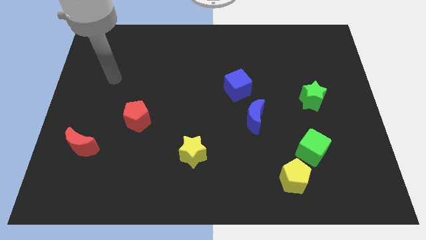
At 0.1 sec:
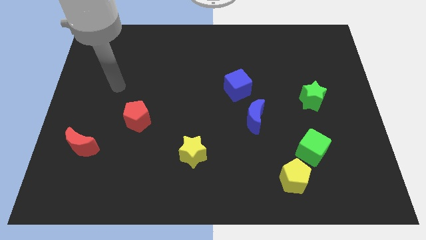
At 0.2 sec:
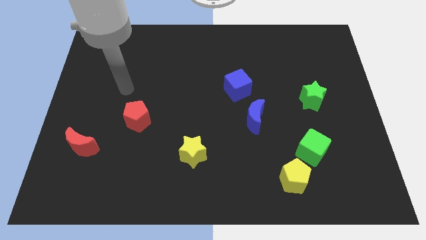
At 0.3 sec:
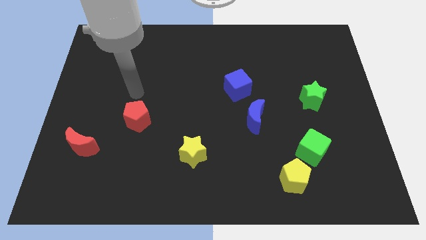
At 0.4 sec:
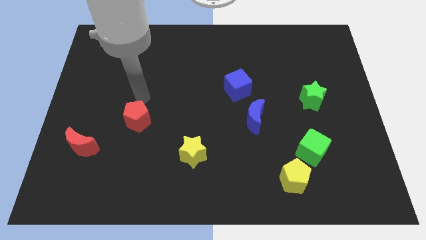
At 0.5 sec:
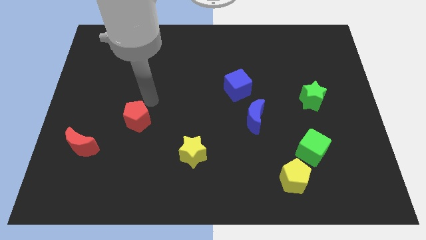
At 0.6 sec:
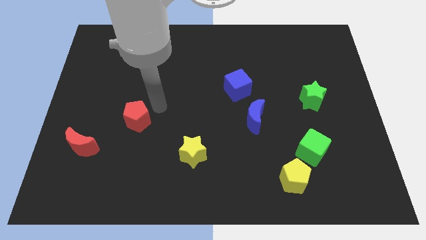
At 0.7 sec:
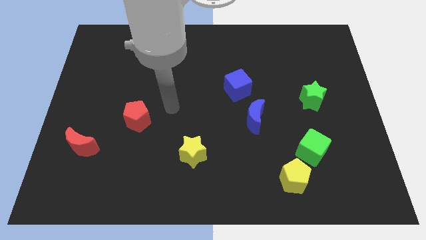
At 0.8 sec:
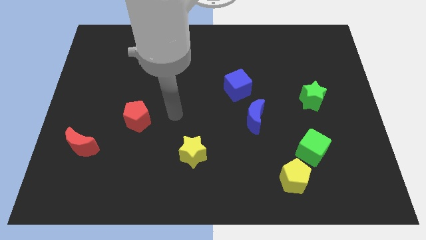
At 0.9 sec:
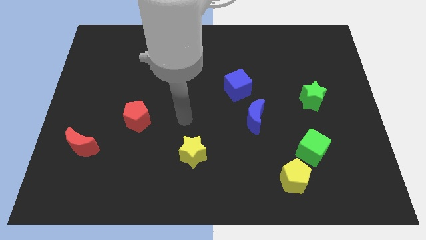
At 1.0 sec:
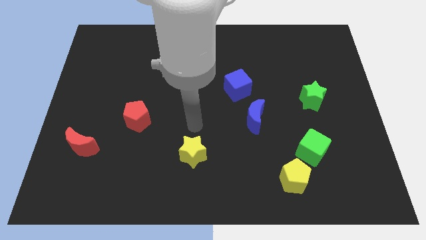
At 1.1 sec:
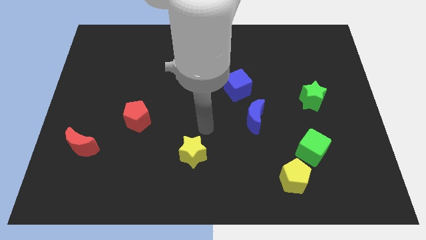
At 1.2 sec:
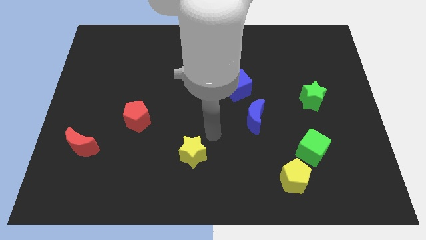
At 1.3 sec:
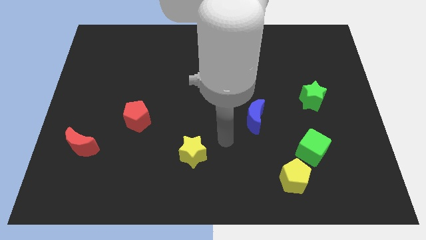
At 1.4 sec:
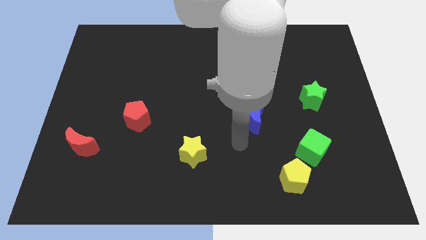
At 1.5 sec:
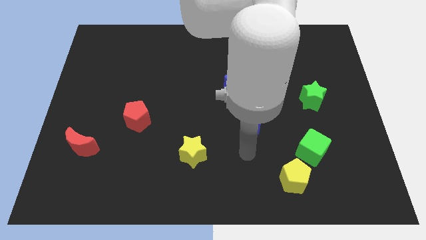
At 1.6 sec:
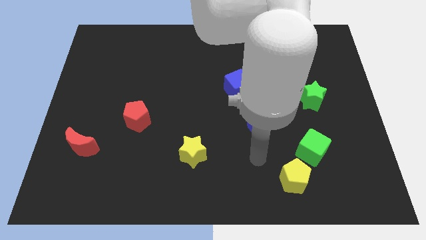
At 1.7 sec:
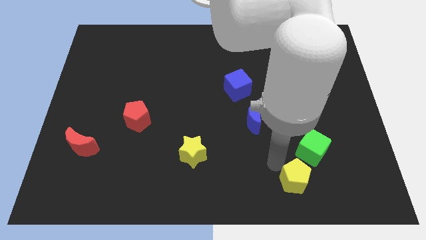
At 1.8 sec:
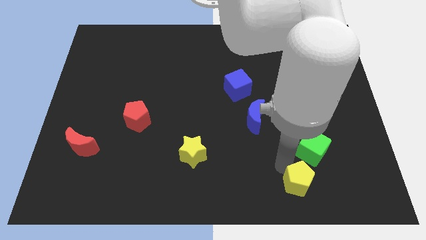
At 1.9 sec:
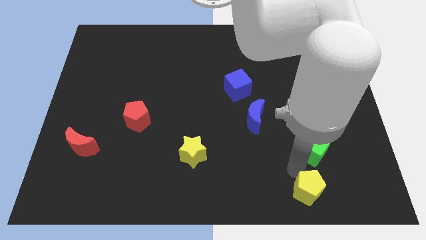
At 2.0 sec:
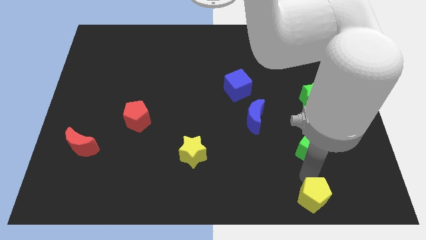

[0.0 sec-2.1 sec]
pull the green cube apart from the yellow pentagon

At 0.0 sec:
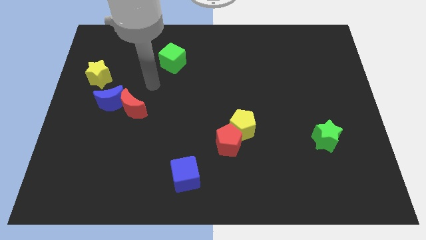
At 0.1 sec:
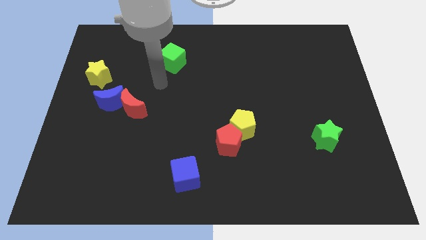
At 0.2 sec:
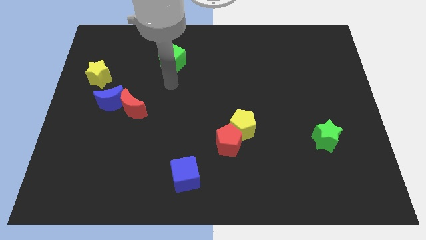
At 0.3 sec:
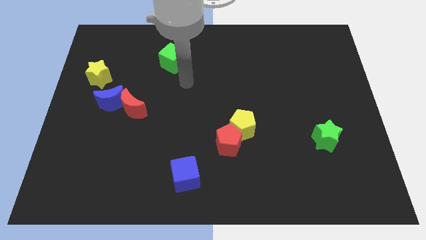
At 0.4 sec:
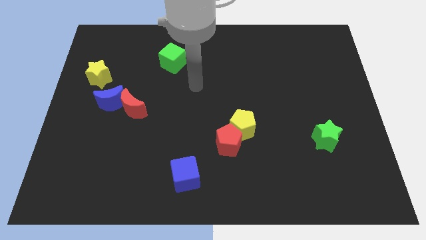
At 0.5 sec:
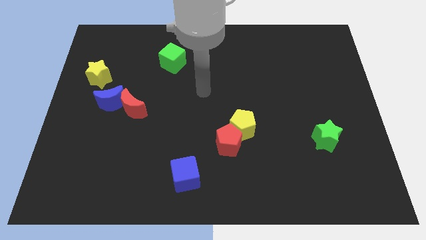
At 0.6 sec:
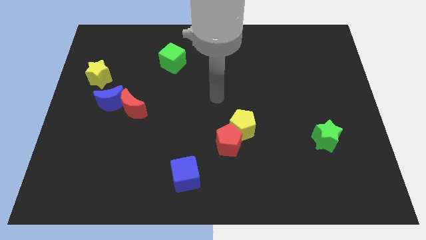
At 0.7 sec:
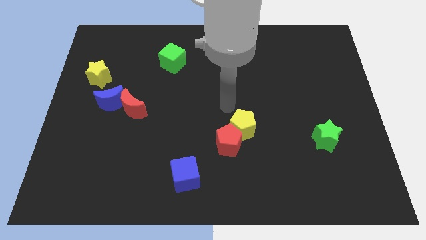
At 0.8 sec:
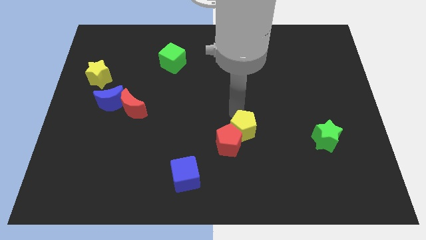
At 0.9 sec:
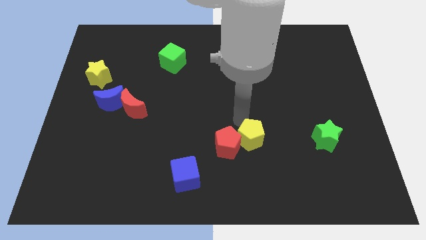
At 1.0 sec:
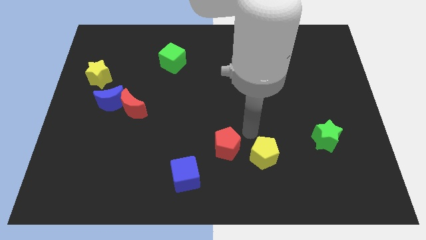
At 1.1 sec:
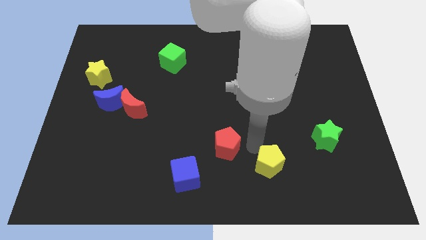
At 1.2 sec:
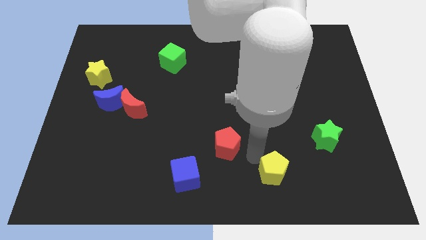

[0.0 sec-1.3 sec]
separate the red pentagon from the yellow pentagon

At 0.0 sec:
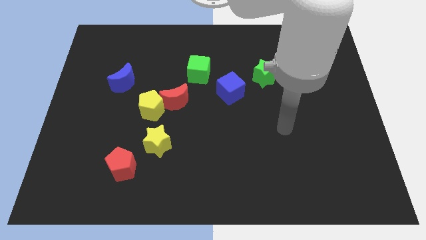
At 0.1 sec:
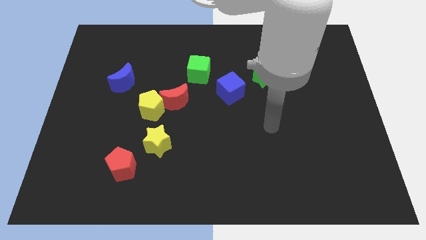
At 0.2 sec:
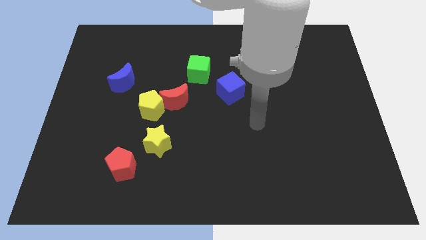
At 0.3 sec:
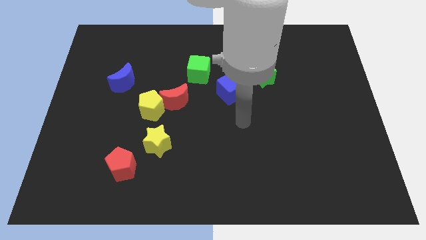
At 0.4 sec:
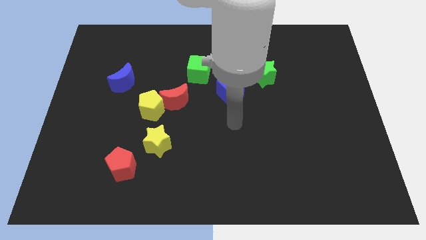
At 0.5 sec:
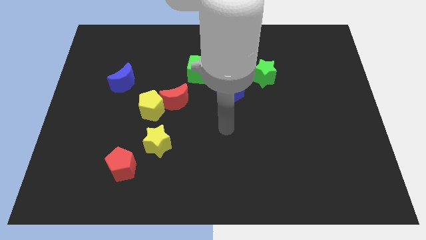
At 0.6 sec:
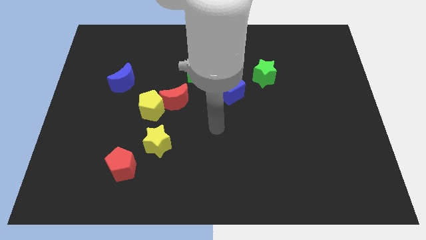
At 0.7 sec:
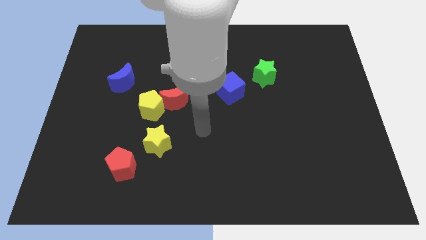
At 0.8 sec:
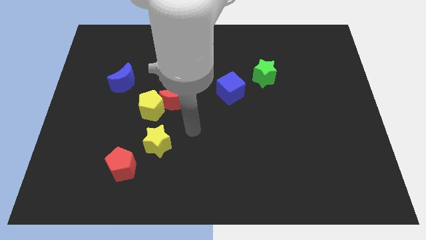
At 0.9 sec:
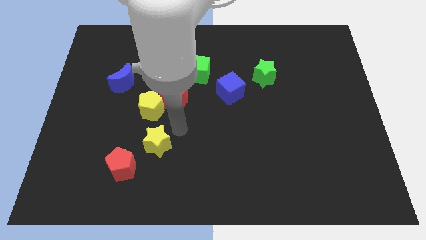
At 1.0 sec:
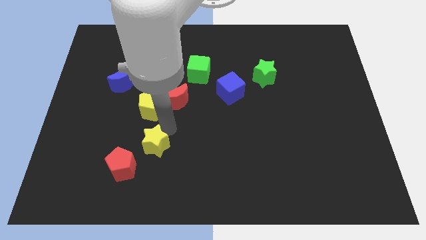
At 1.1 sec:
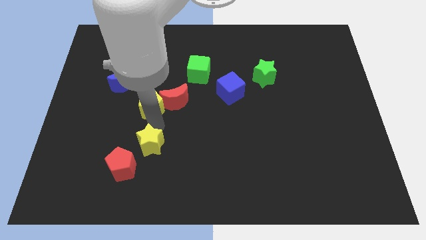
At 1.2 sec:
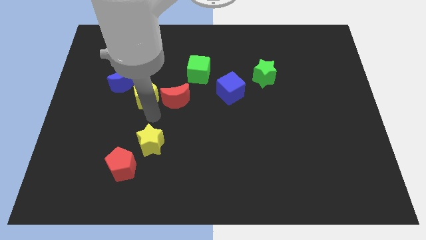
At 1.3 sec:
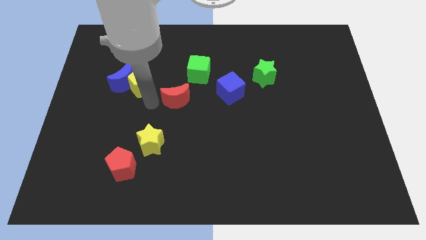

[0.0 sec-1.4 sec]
separate the red moon from the yellow pentagon

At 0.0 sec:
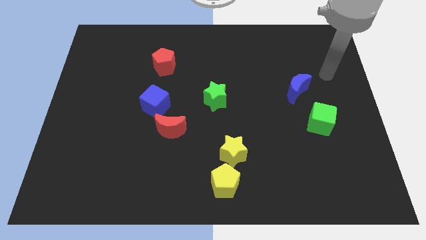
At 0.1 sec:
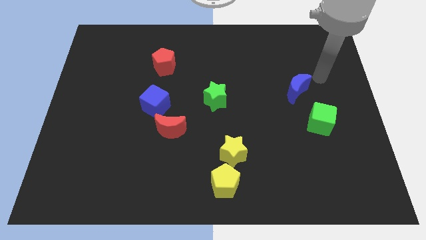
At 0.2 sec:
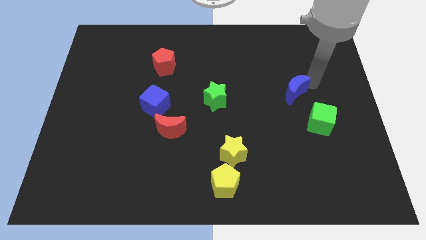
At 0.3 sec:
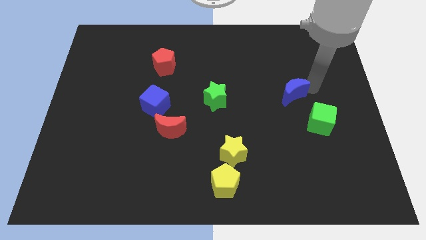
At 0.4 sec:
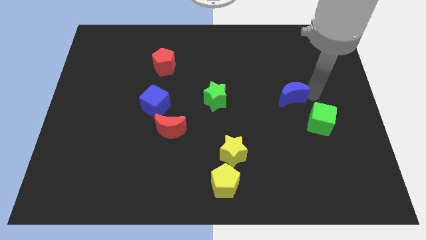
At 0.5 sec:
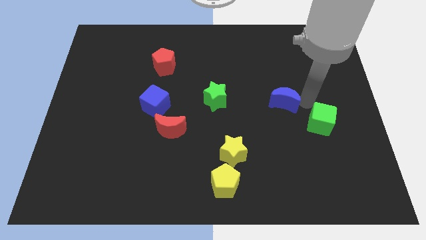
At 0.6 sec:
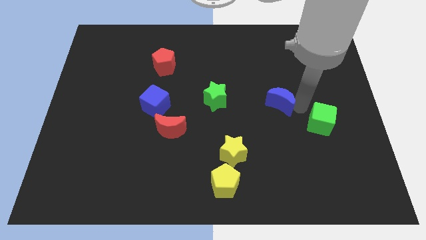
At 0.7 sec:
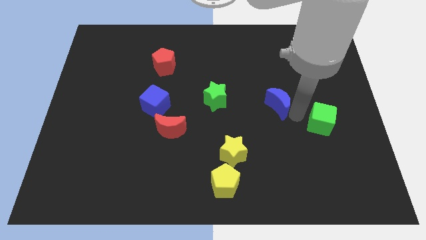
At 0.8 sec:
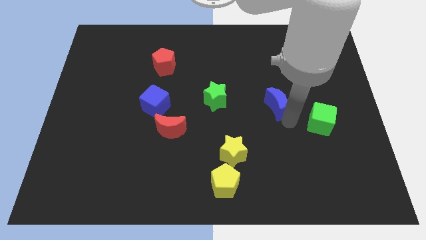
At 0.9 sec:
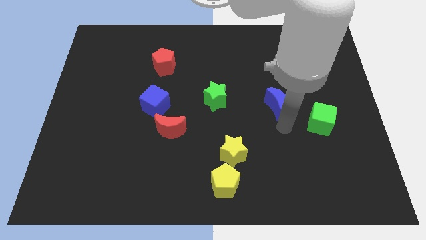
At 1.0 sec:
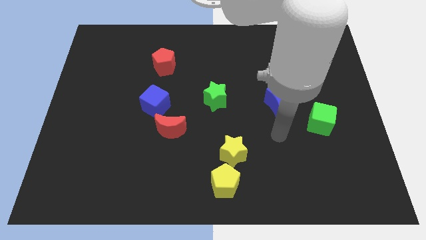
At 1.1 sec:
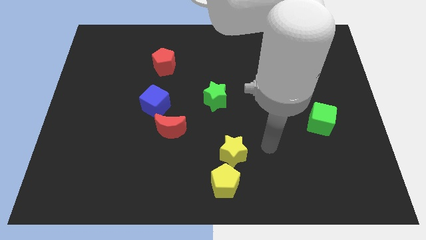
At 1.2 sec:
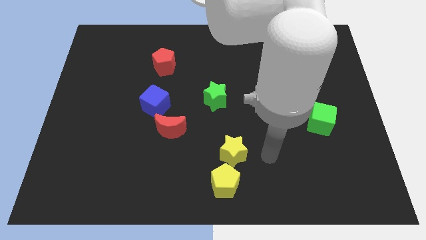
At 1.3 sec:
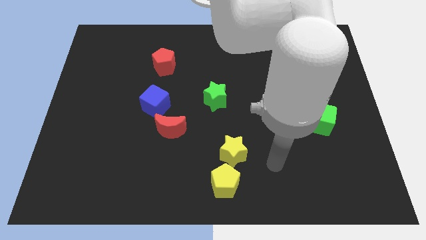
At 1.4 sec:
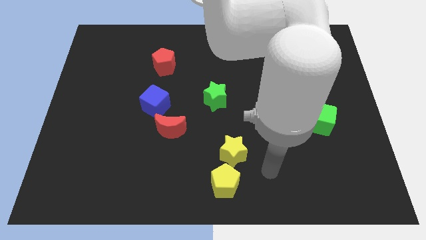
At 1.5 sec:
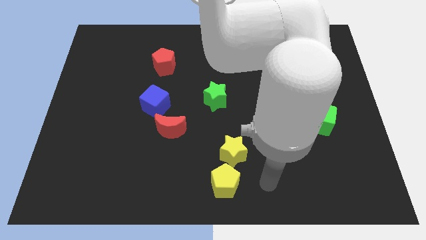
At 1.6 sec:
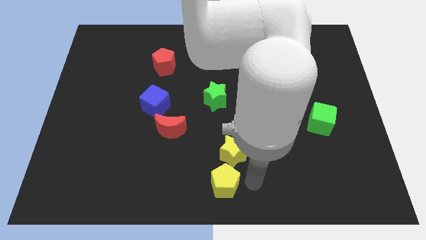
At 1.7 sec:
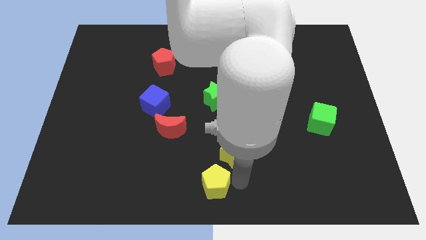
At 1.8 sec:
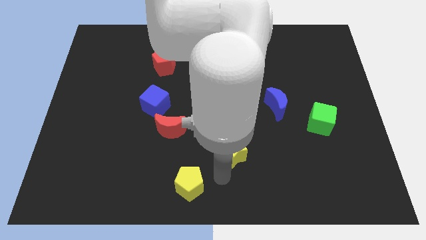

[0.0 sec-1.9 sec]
move the yellow star away from the yellow pentagon

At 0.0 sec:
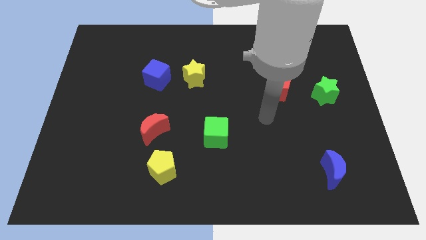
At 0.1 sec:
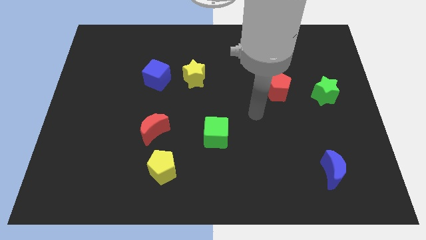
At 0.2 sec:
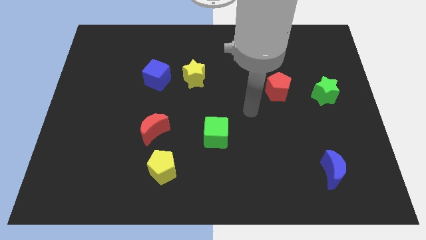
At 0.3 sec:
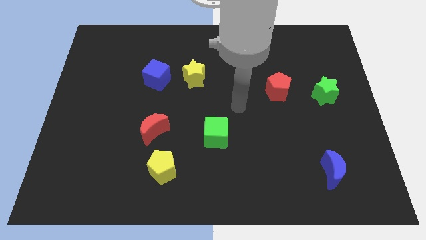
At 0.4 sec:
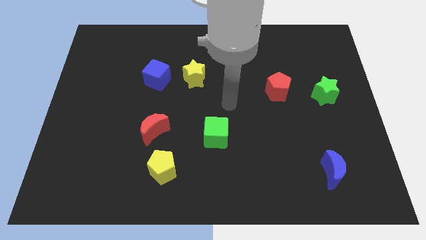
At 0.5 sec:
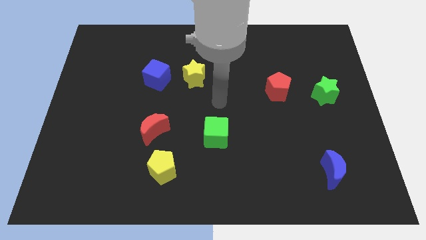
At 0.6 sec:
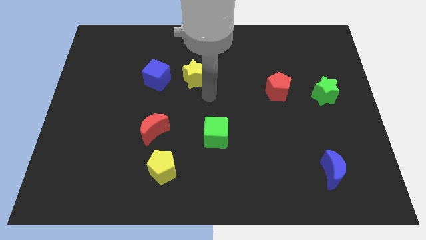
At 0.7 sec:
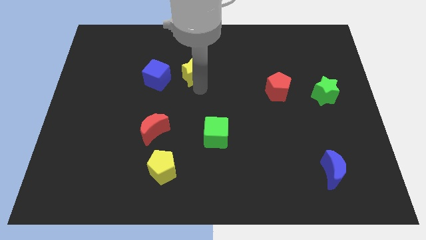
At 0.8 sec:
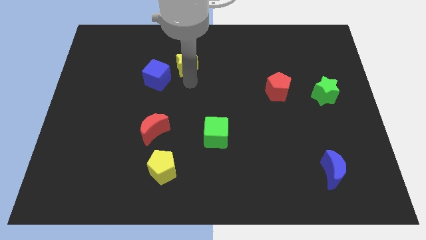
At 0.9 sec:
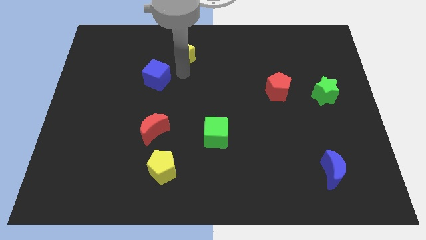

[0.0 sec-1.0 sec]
separate the blue cube from the yellow star

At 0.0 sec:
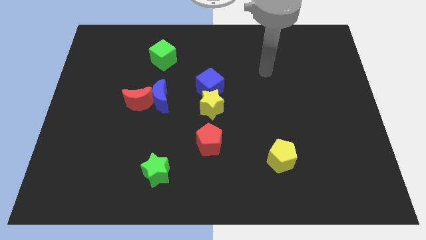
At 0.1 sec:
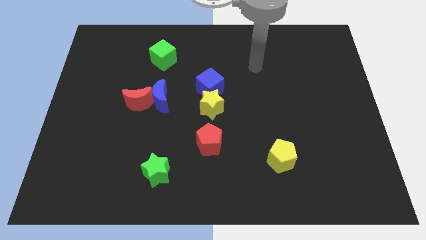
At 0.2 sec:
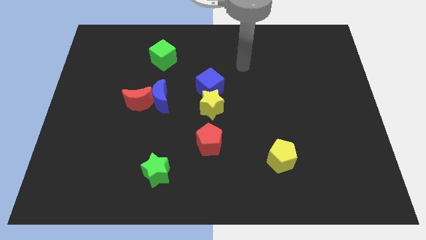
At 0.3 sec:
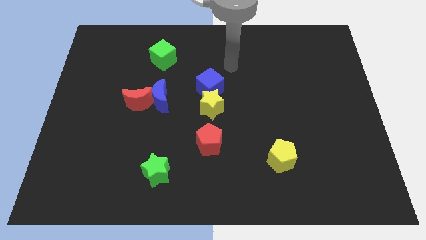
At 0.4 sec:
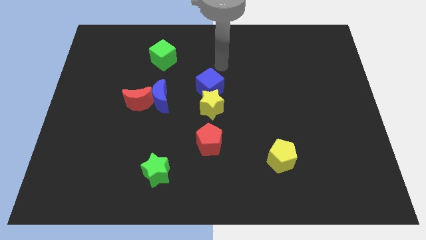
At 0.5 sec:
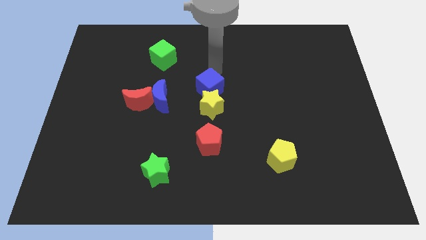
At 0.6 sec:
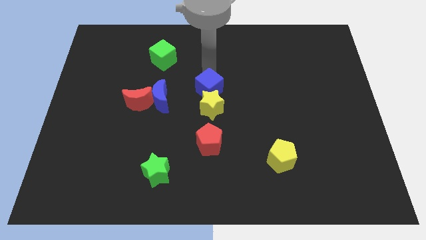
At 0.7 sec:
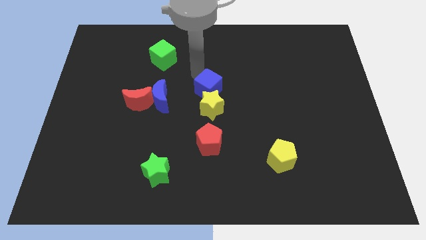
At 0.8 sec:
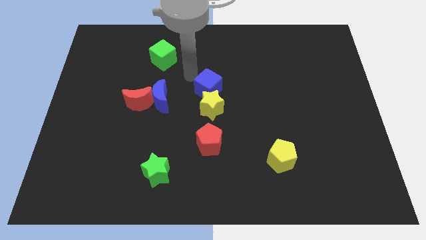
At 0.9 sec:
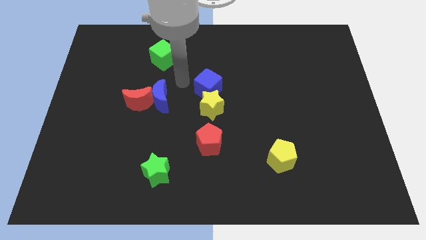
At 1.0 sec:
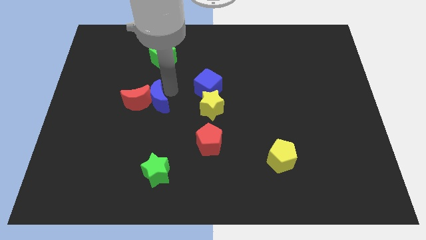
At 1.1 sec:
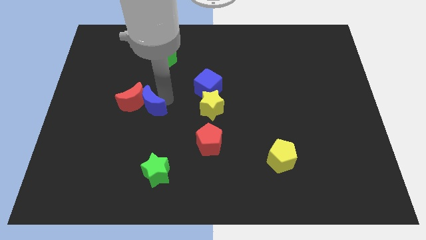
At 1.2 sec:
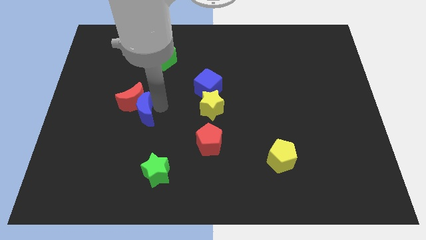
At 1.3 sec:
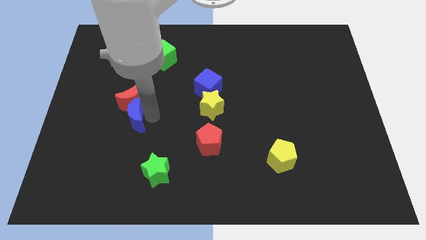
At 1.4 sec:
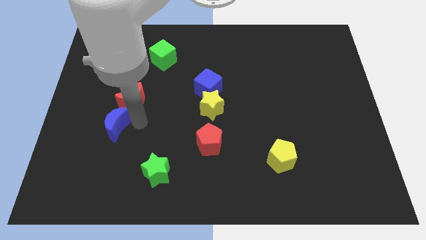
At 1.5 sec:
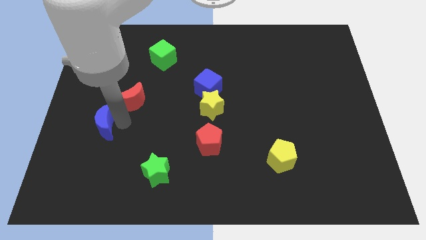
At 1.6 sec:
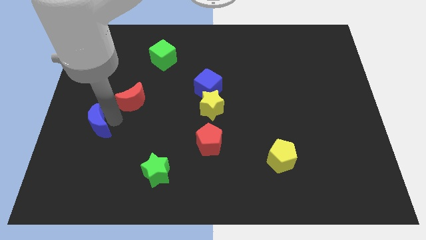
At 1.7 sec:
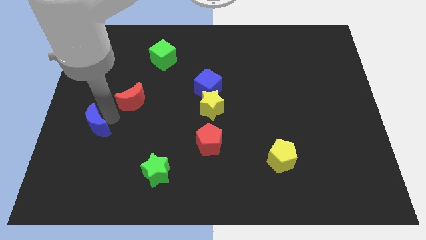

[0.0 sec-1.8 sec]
move the red moon away from the blue moon
